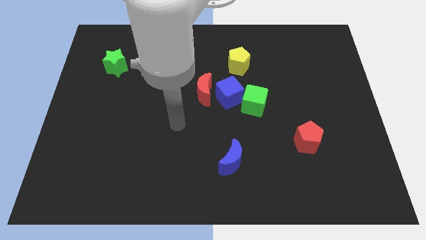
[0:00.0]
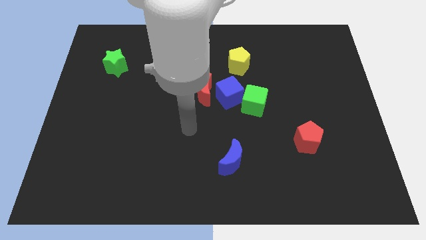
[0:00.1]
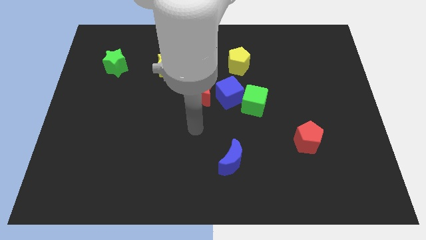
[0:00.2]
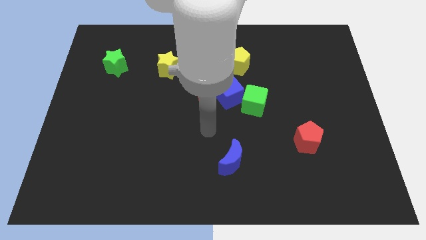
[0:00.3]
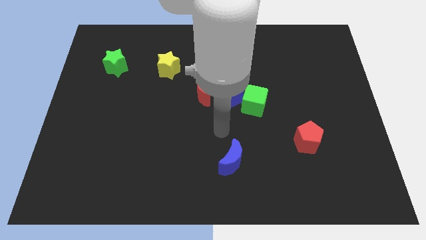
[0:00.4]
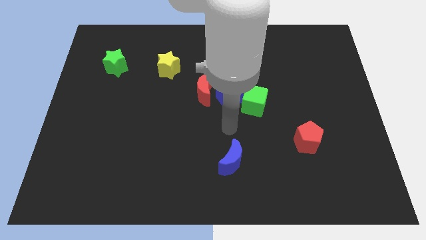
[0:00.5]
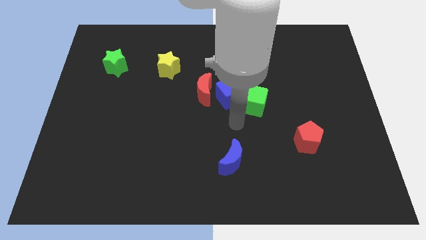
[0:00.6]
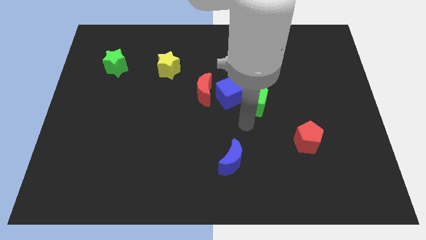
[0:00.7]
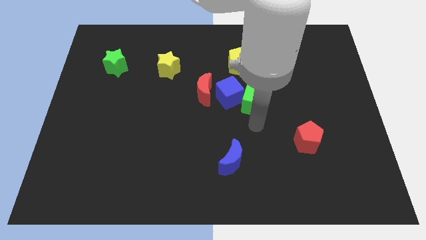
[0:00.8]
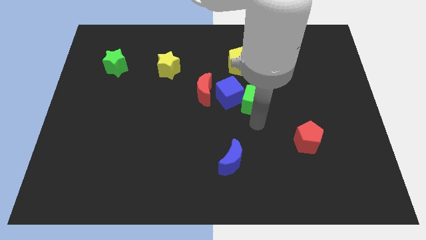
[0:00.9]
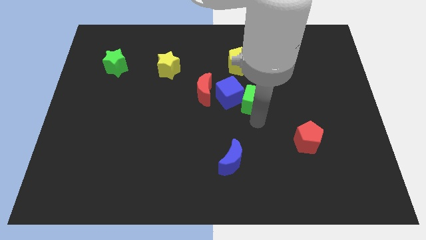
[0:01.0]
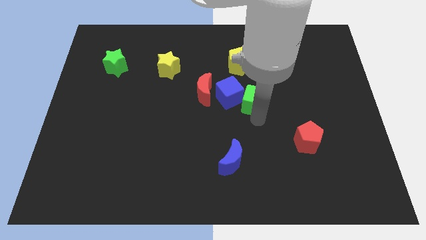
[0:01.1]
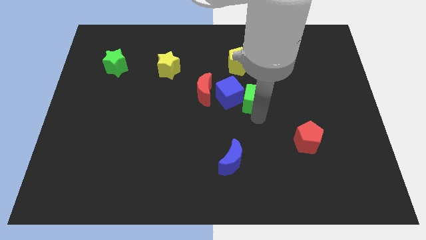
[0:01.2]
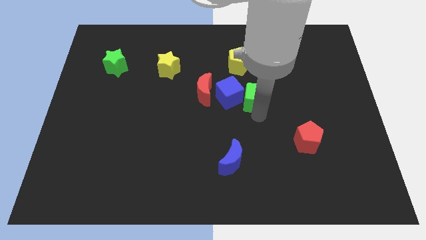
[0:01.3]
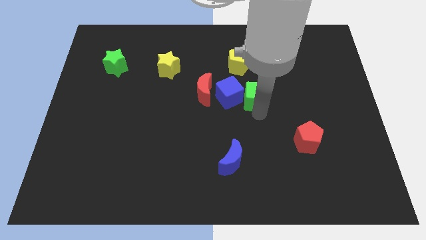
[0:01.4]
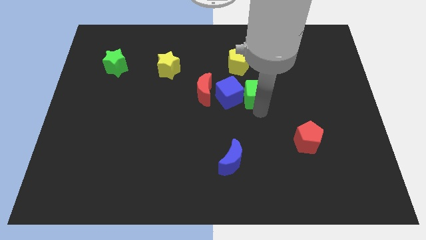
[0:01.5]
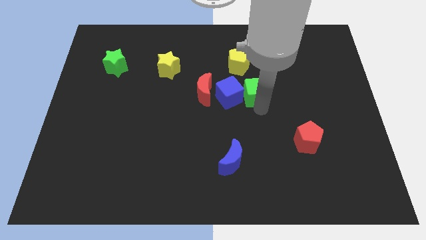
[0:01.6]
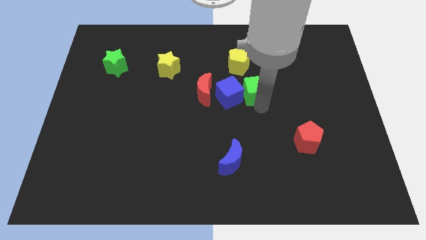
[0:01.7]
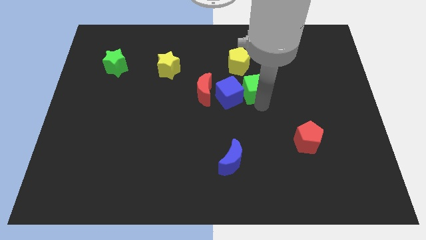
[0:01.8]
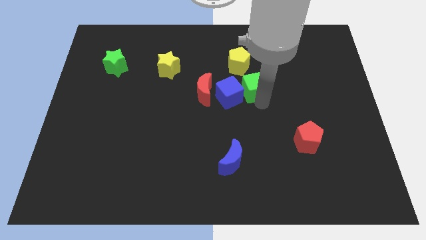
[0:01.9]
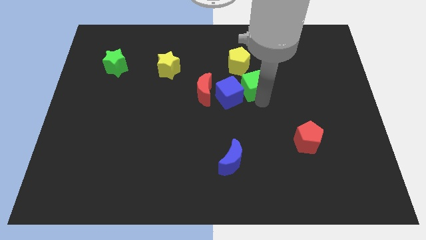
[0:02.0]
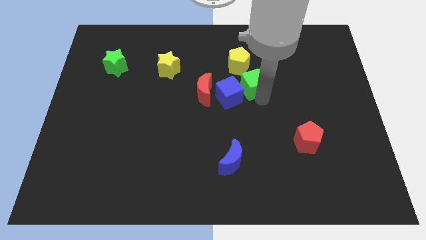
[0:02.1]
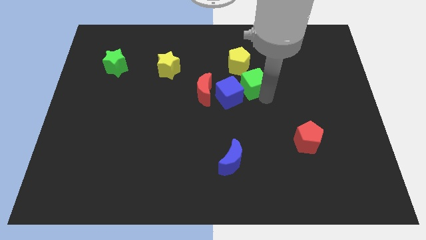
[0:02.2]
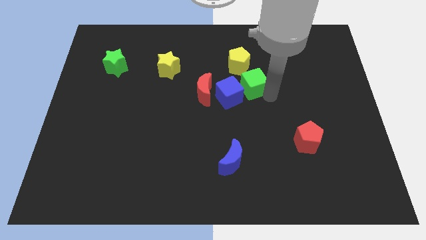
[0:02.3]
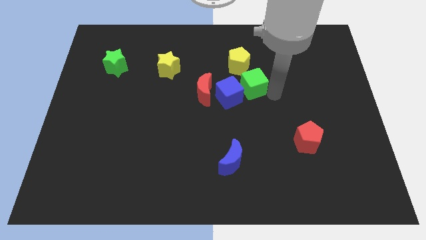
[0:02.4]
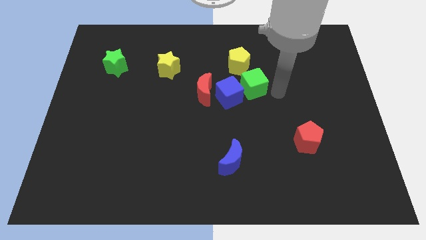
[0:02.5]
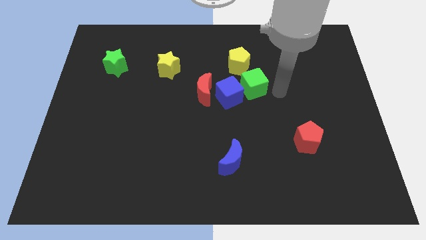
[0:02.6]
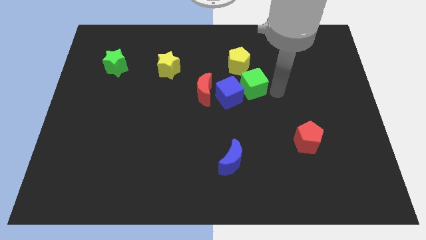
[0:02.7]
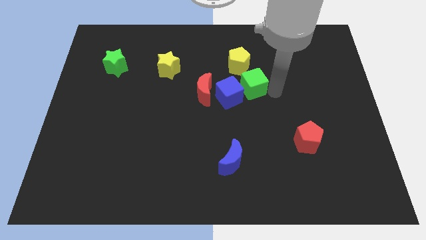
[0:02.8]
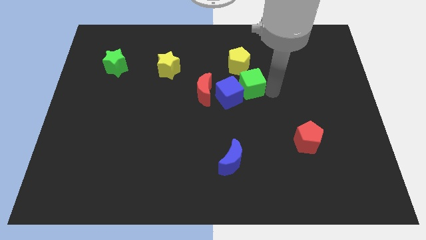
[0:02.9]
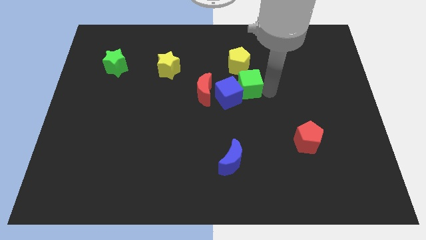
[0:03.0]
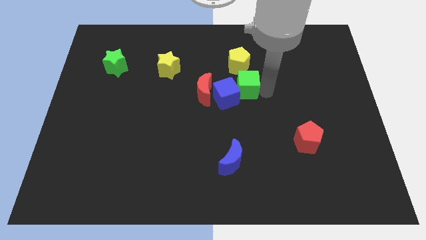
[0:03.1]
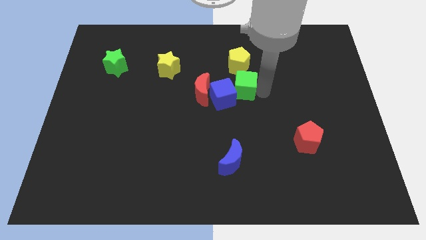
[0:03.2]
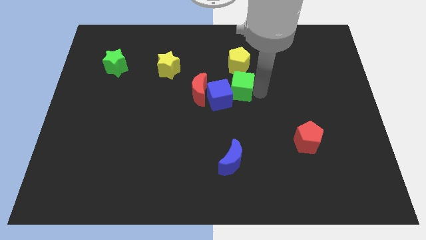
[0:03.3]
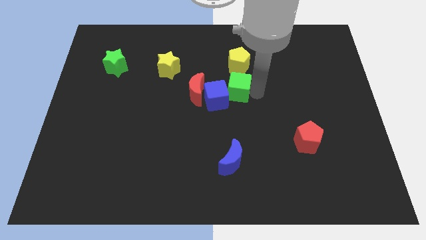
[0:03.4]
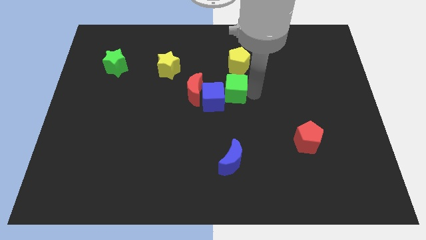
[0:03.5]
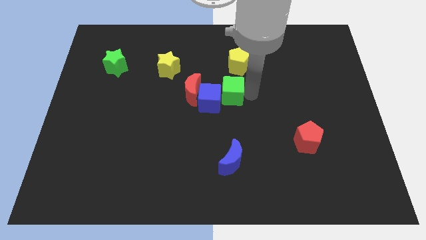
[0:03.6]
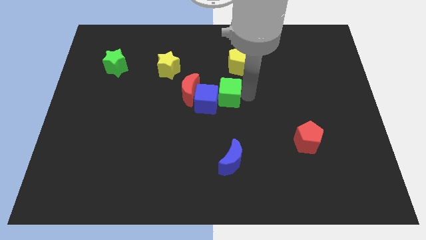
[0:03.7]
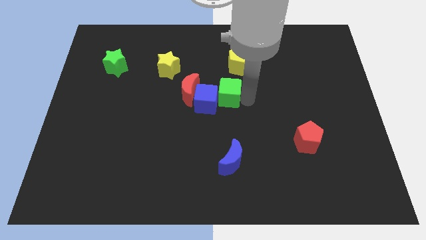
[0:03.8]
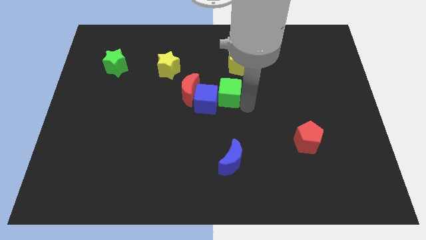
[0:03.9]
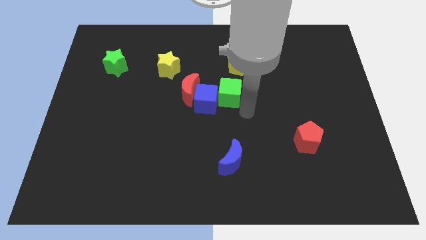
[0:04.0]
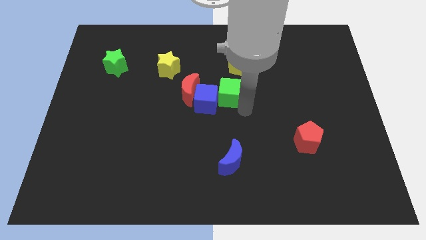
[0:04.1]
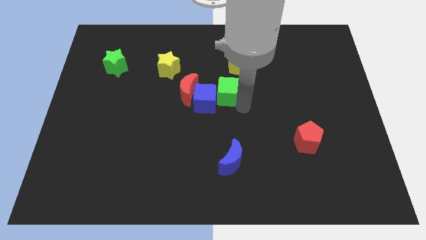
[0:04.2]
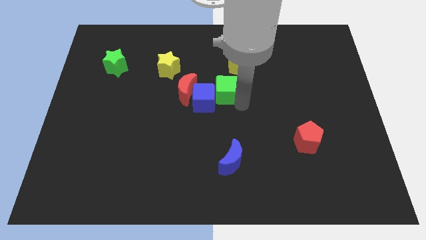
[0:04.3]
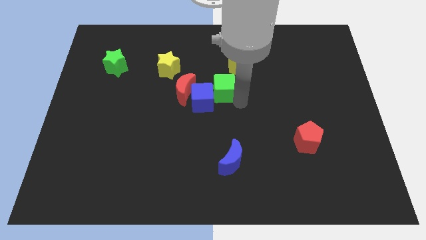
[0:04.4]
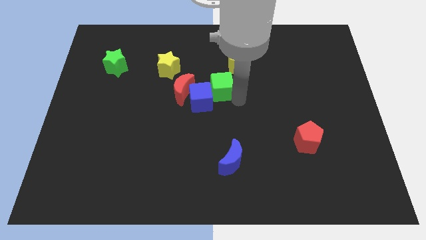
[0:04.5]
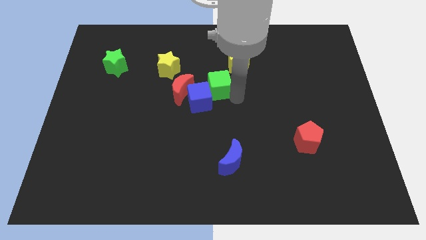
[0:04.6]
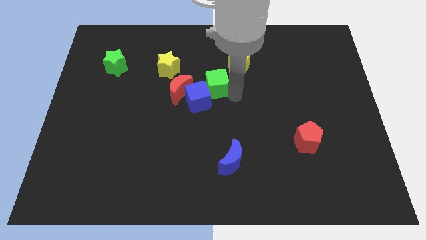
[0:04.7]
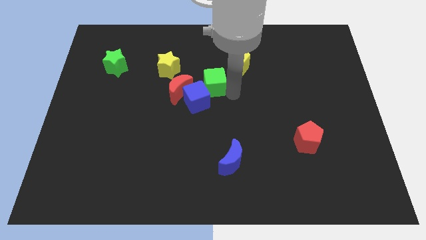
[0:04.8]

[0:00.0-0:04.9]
push the green cube to the top right of the red moon

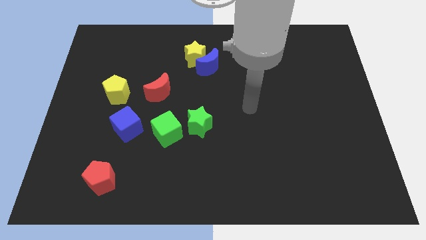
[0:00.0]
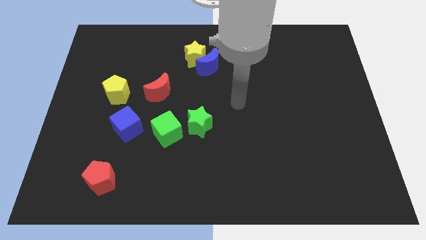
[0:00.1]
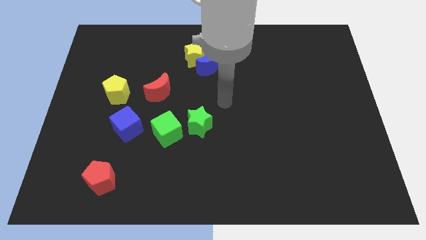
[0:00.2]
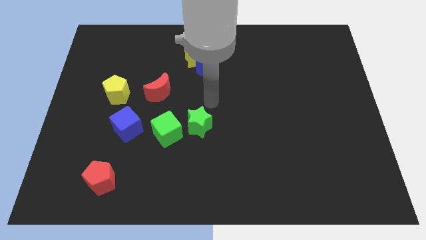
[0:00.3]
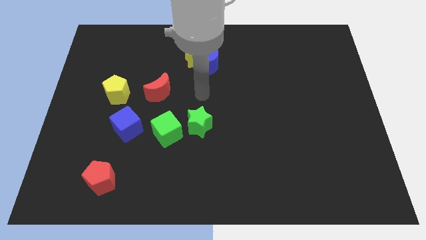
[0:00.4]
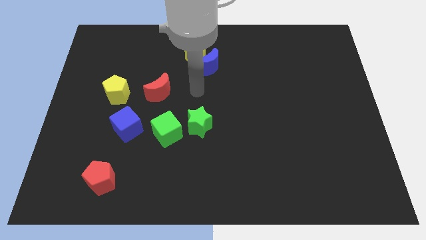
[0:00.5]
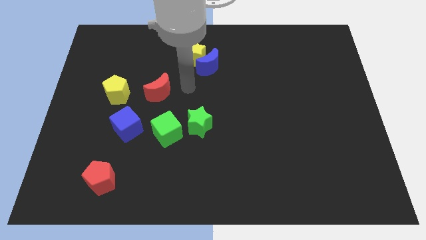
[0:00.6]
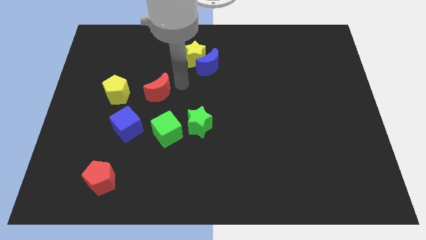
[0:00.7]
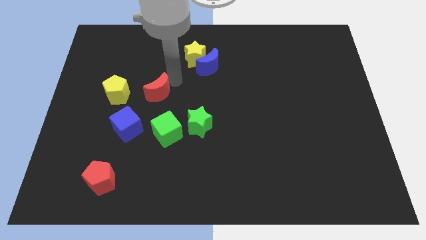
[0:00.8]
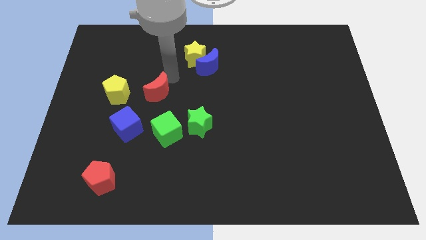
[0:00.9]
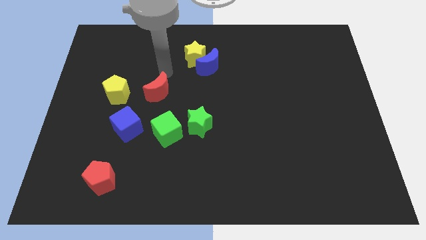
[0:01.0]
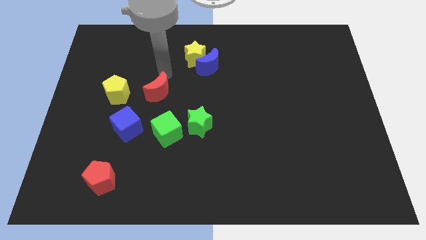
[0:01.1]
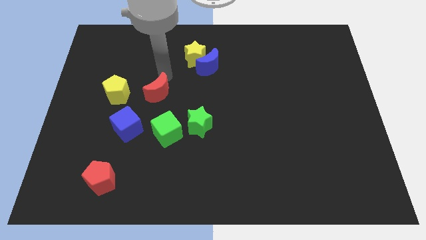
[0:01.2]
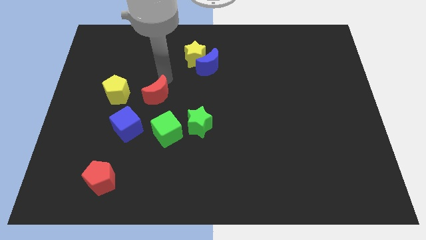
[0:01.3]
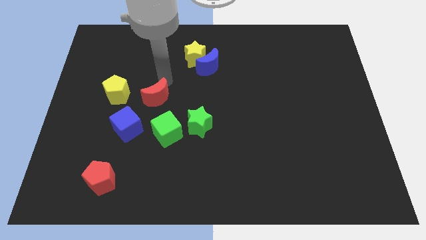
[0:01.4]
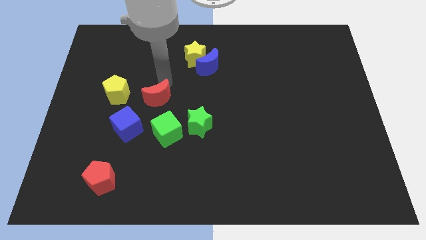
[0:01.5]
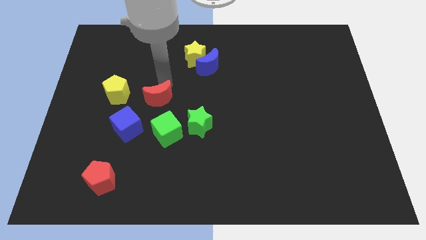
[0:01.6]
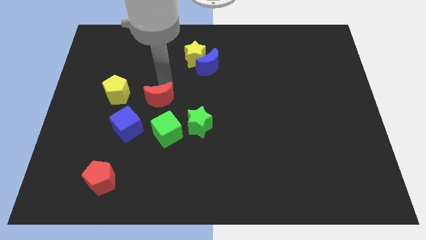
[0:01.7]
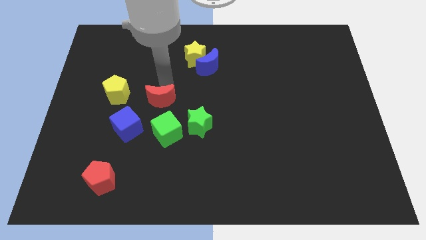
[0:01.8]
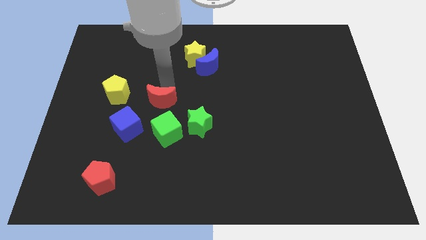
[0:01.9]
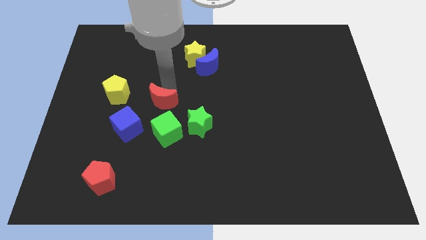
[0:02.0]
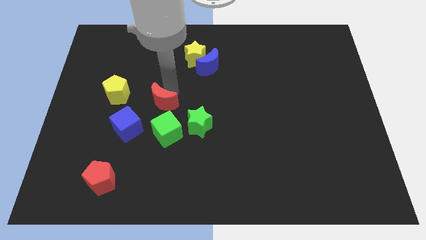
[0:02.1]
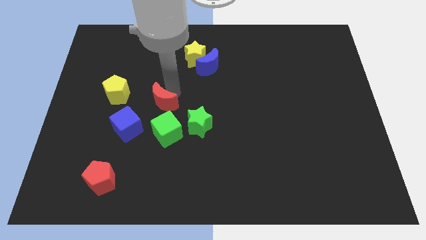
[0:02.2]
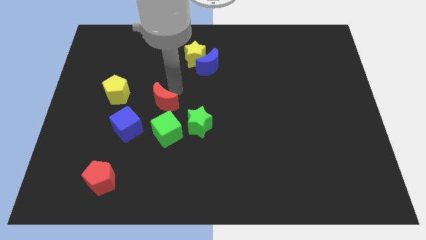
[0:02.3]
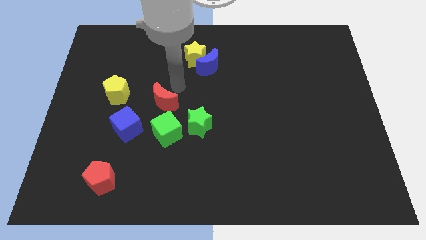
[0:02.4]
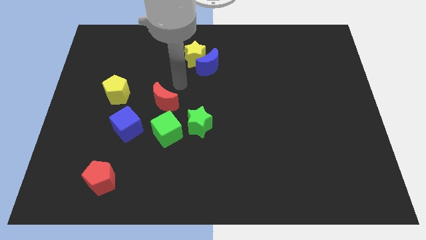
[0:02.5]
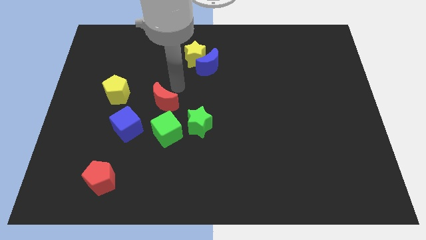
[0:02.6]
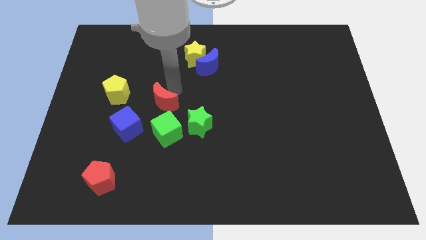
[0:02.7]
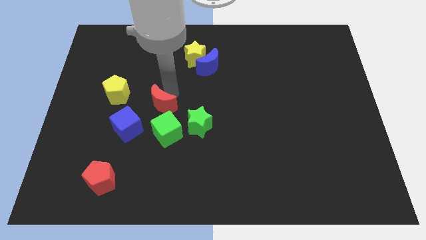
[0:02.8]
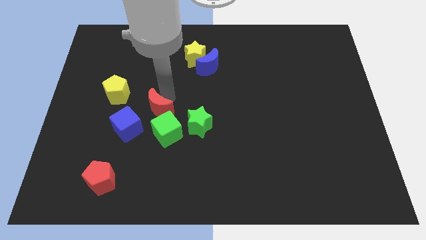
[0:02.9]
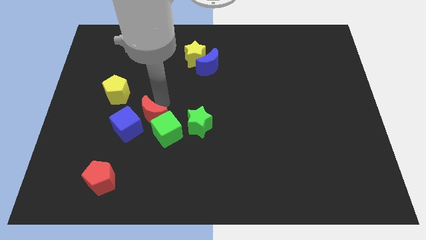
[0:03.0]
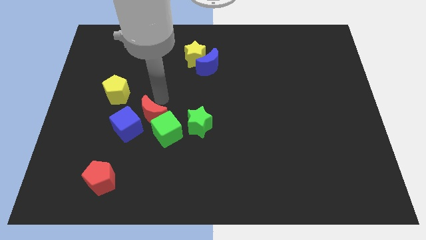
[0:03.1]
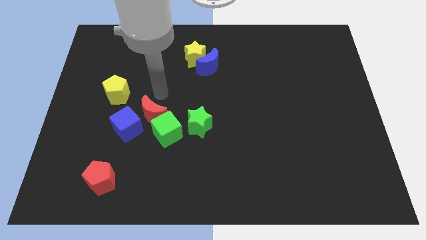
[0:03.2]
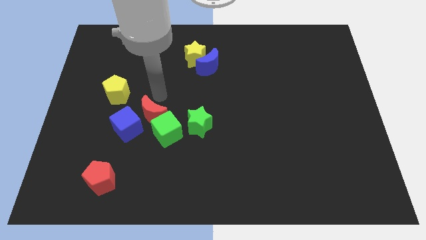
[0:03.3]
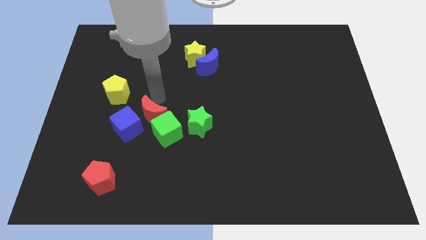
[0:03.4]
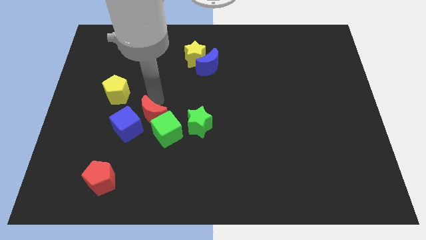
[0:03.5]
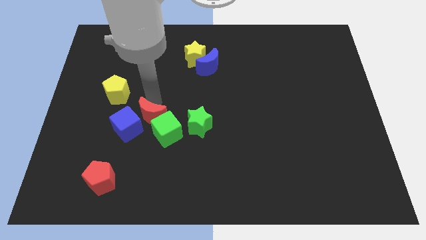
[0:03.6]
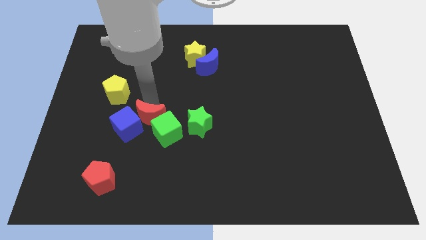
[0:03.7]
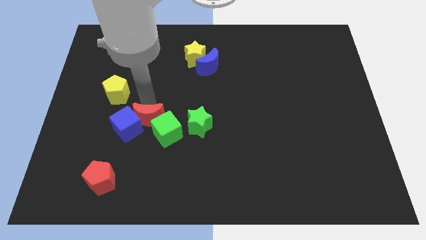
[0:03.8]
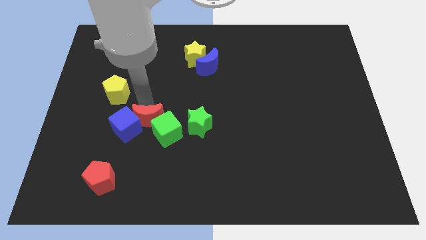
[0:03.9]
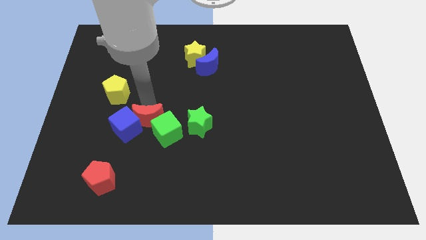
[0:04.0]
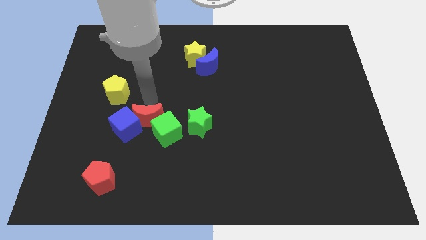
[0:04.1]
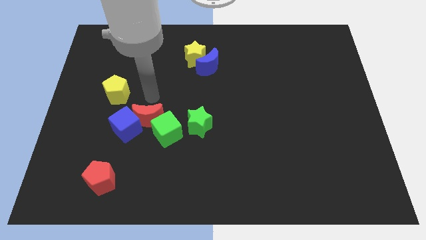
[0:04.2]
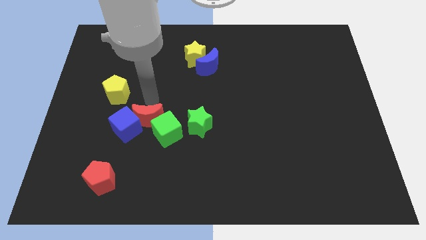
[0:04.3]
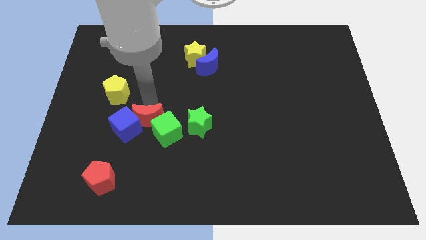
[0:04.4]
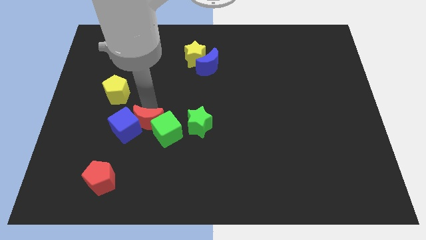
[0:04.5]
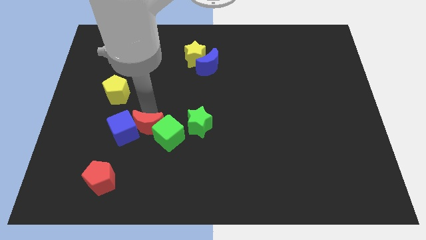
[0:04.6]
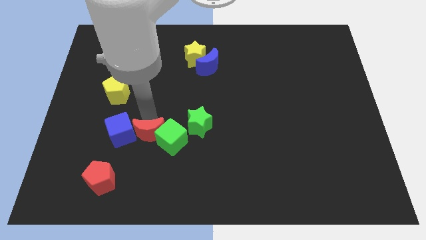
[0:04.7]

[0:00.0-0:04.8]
push the red moon to the bottom left side of the green cube
